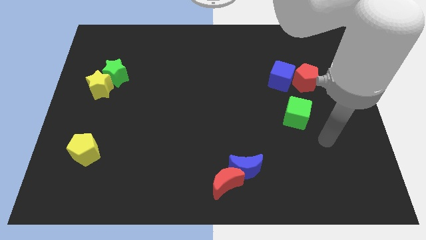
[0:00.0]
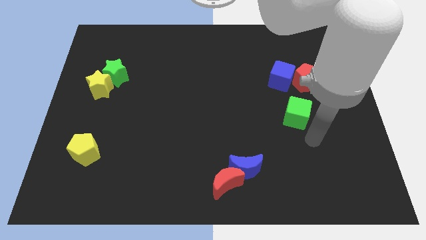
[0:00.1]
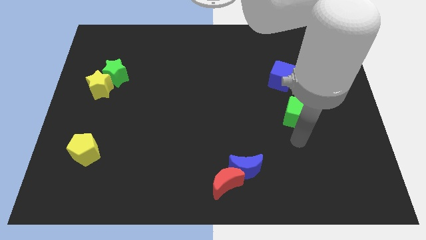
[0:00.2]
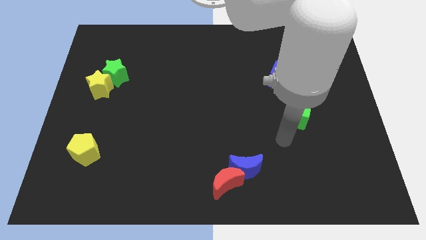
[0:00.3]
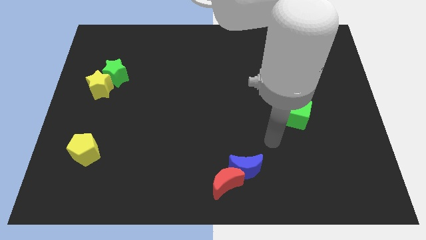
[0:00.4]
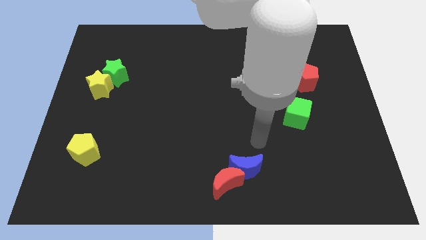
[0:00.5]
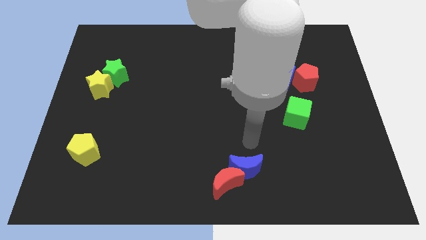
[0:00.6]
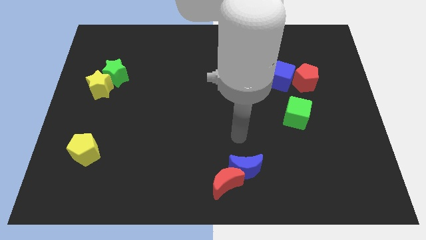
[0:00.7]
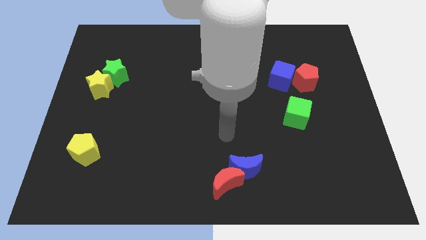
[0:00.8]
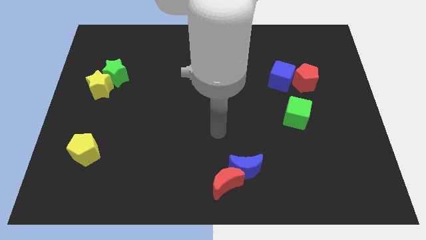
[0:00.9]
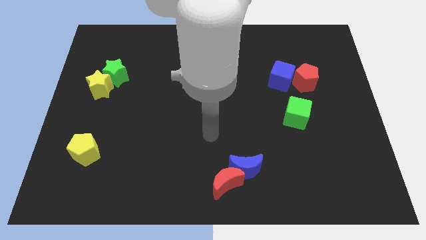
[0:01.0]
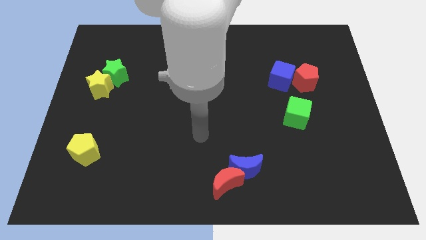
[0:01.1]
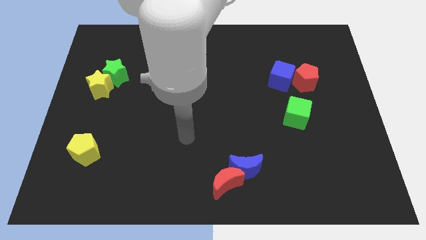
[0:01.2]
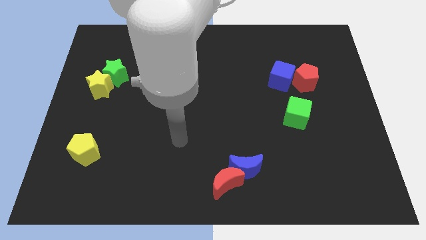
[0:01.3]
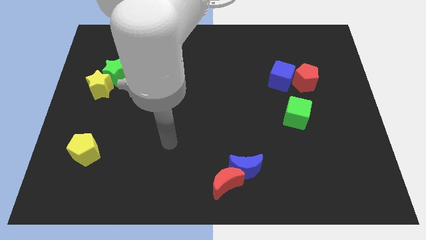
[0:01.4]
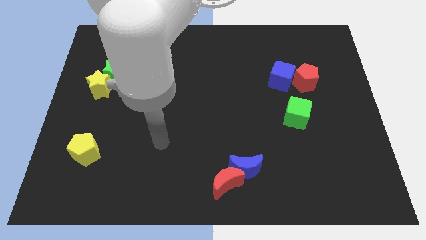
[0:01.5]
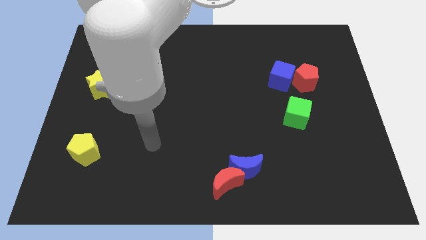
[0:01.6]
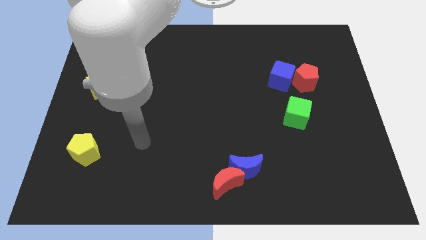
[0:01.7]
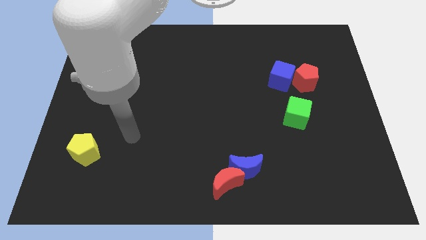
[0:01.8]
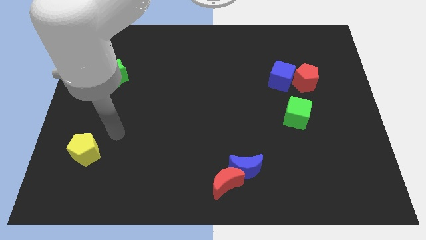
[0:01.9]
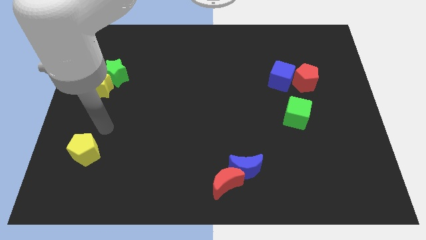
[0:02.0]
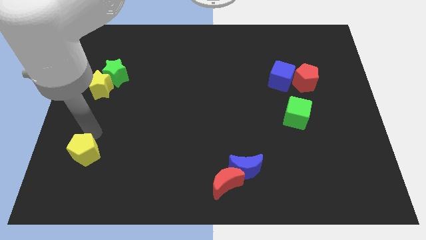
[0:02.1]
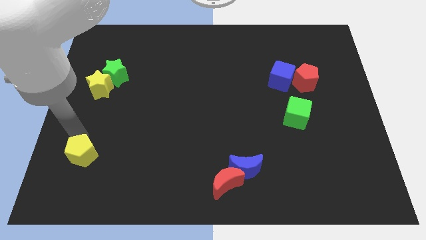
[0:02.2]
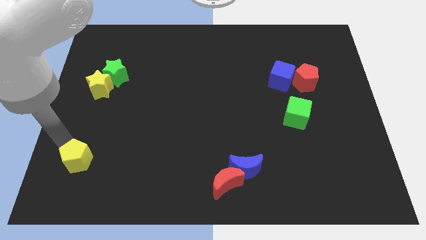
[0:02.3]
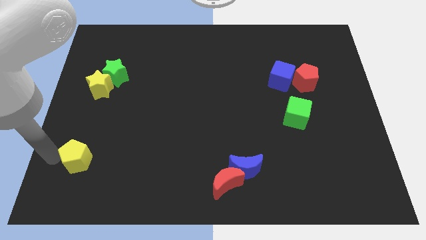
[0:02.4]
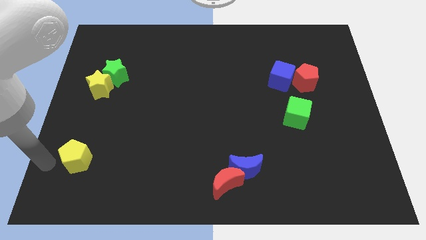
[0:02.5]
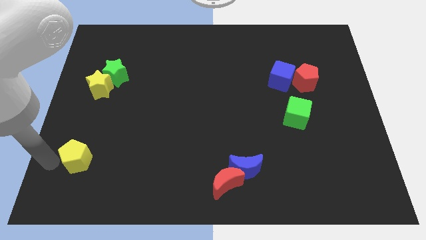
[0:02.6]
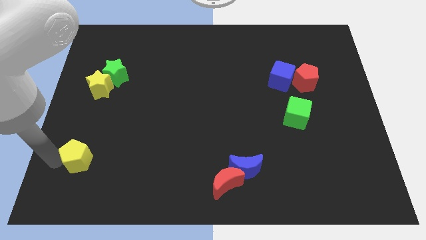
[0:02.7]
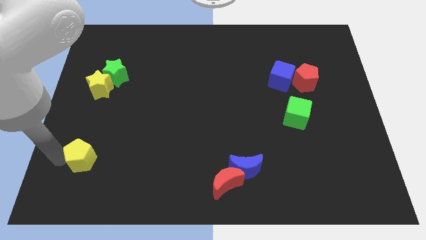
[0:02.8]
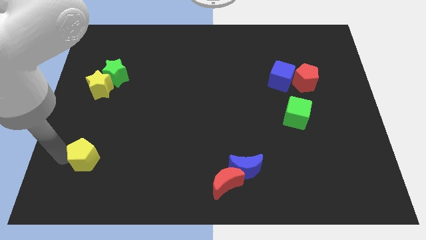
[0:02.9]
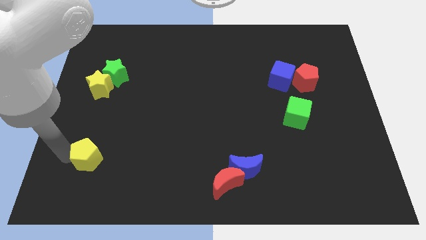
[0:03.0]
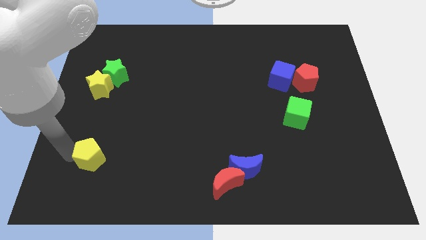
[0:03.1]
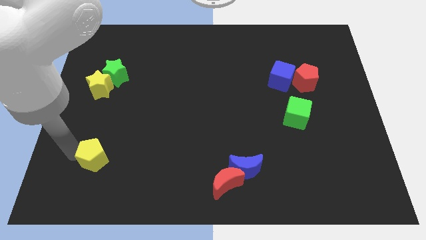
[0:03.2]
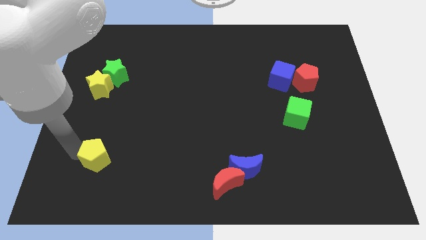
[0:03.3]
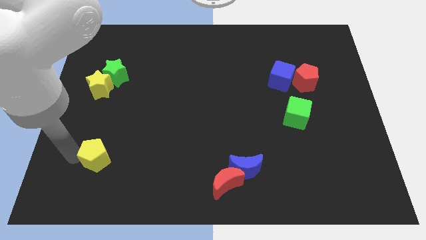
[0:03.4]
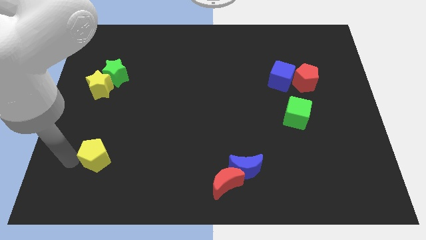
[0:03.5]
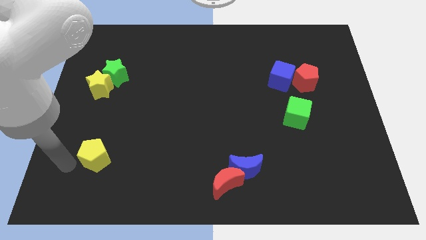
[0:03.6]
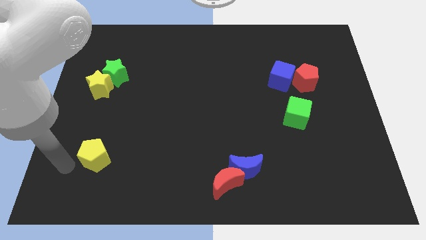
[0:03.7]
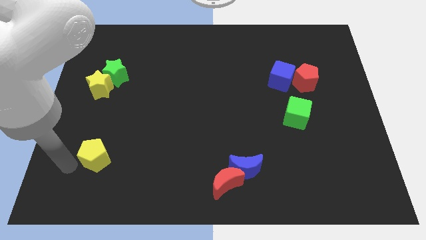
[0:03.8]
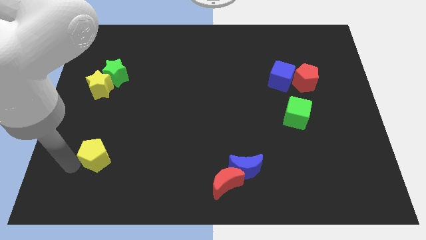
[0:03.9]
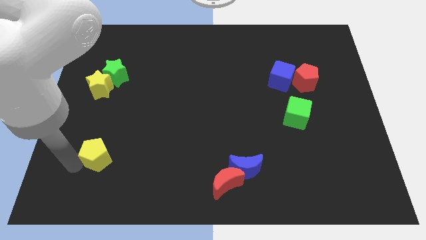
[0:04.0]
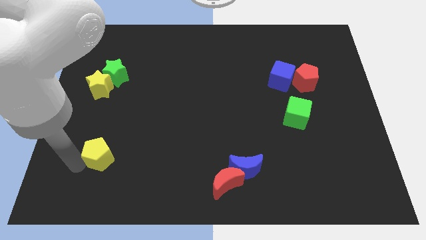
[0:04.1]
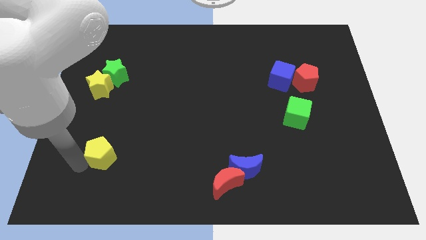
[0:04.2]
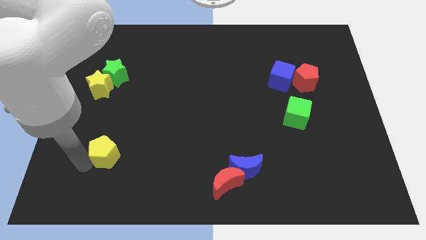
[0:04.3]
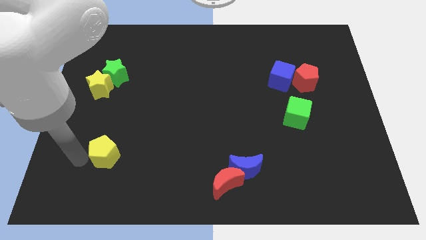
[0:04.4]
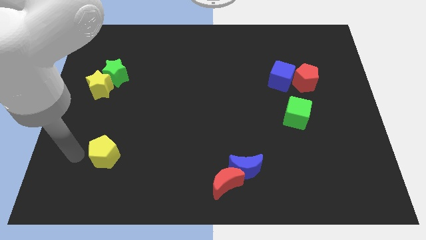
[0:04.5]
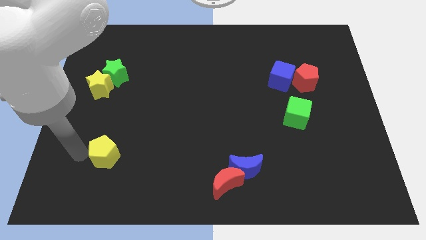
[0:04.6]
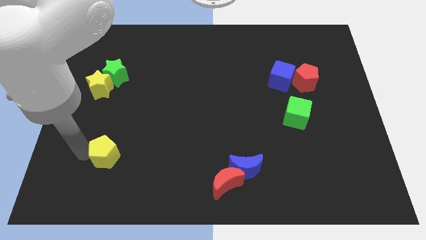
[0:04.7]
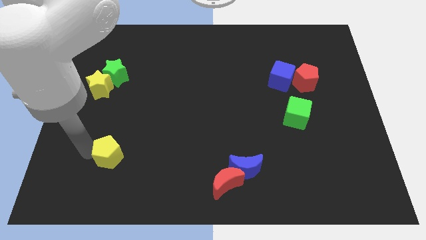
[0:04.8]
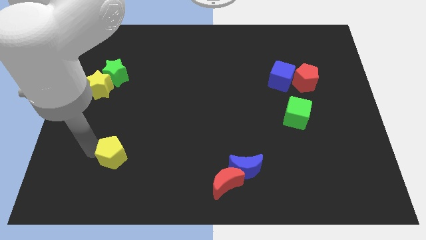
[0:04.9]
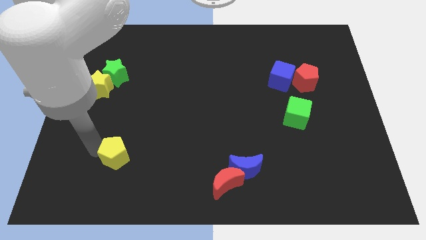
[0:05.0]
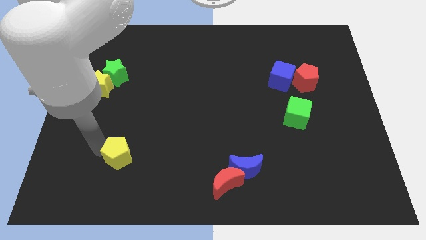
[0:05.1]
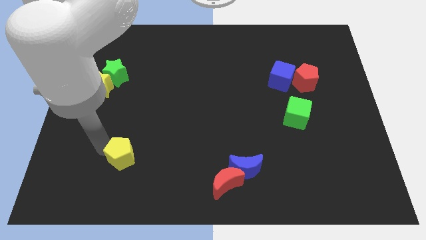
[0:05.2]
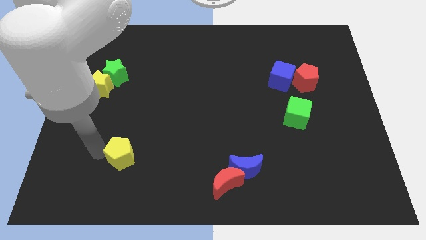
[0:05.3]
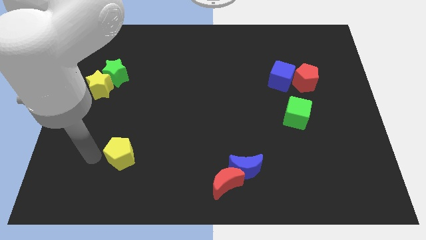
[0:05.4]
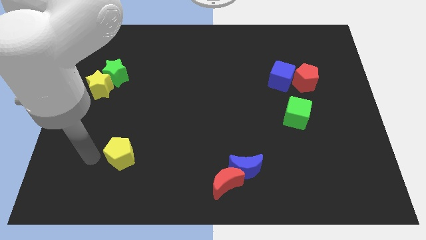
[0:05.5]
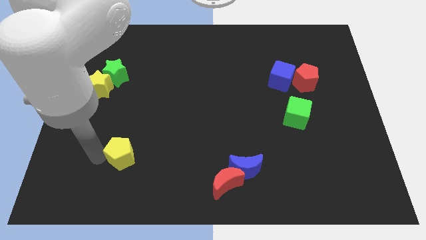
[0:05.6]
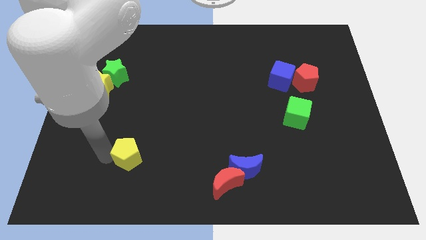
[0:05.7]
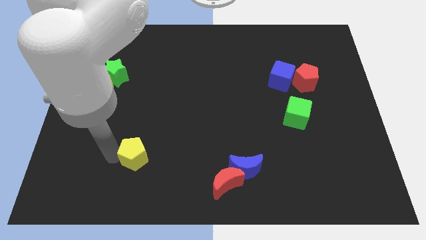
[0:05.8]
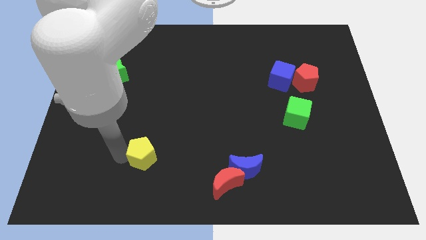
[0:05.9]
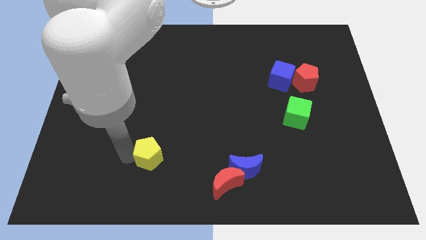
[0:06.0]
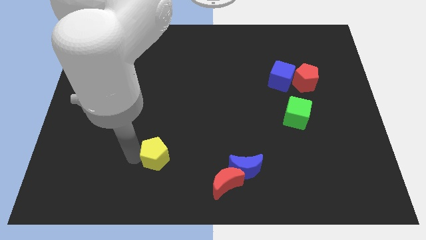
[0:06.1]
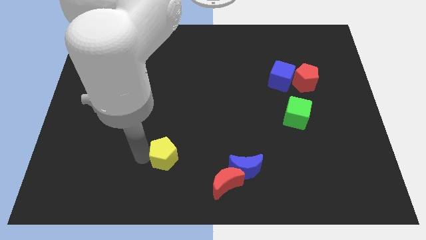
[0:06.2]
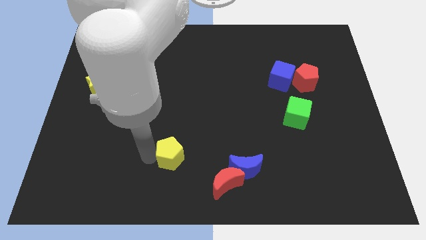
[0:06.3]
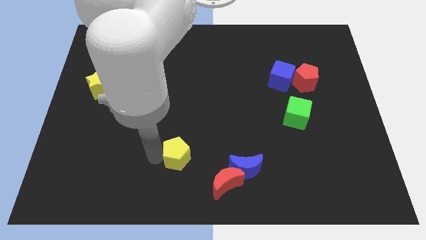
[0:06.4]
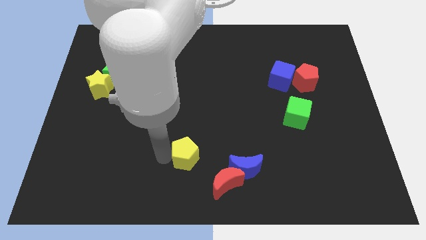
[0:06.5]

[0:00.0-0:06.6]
slide the yellow pentagon right

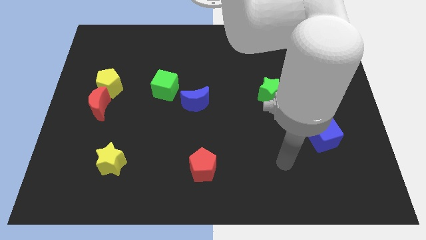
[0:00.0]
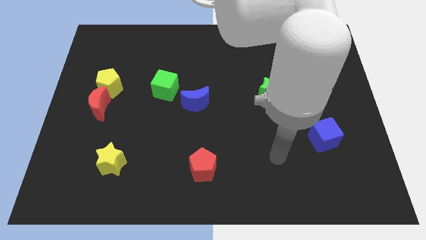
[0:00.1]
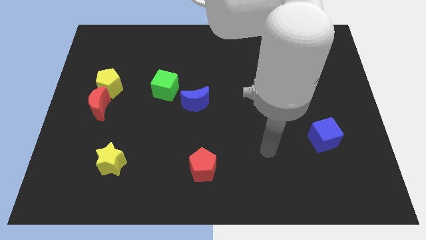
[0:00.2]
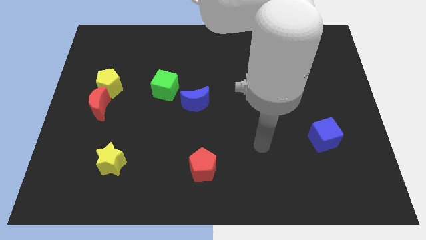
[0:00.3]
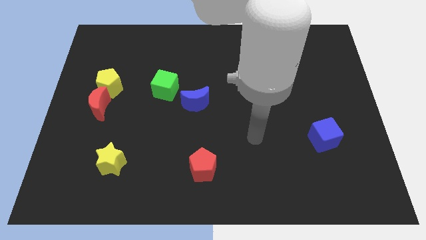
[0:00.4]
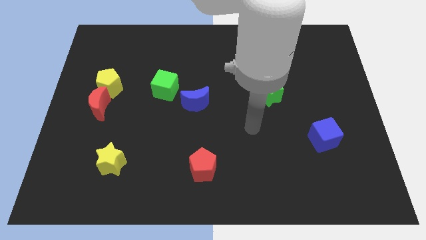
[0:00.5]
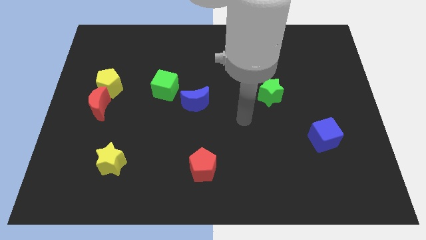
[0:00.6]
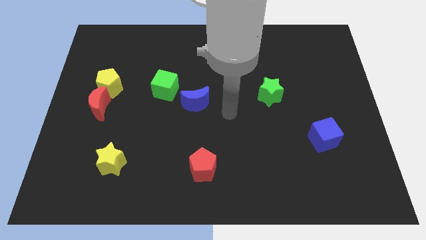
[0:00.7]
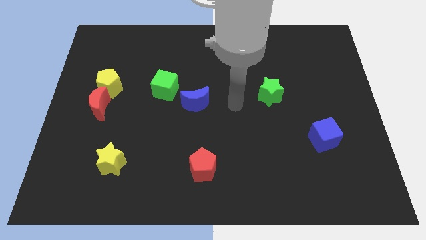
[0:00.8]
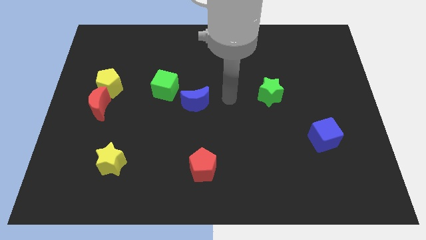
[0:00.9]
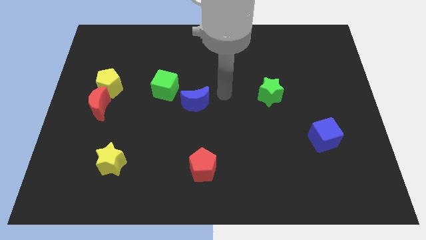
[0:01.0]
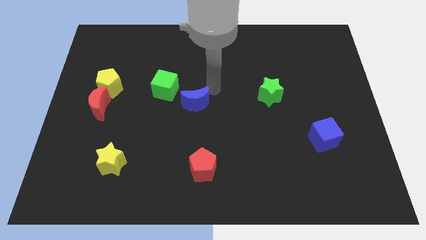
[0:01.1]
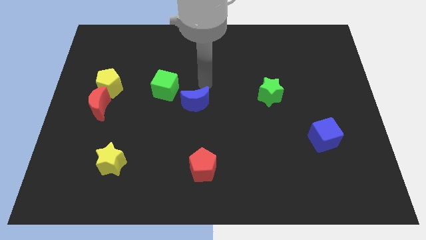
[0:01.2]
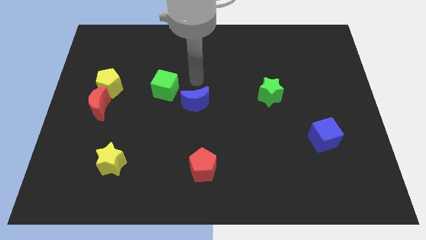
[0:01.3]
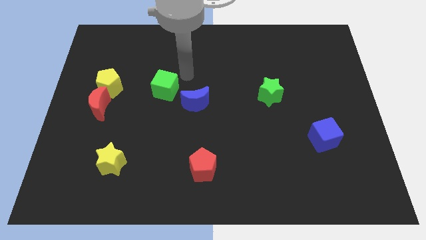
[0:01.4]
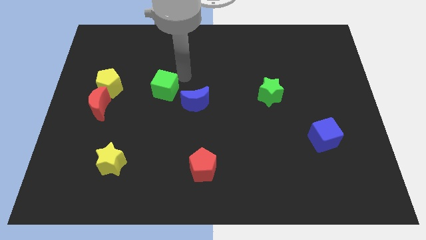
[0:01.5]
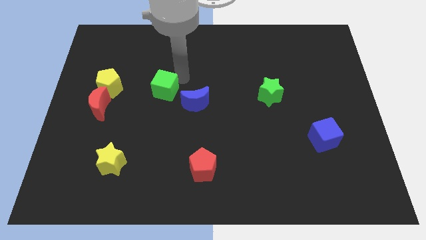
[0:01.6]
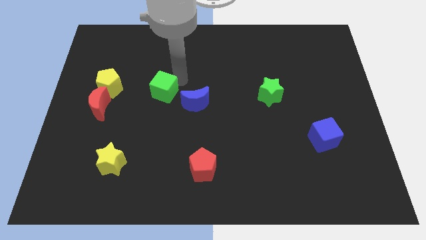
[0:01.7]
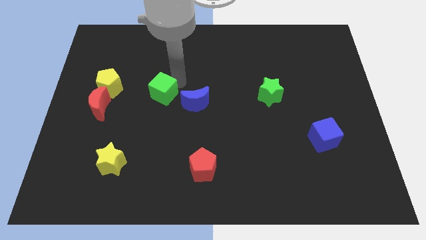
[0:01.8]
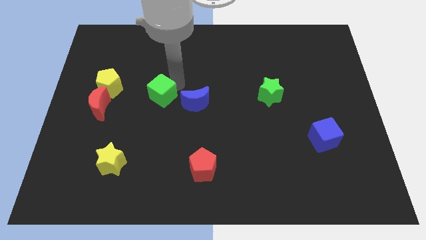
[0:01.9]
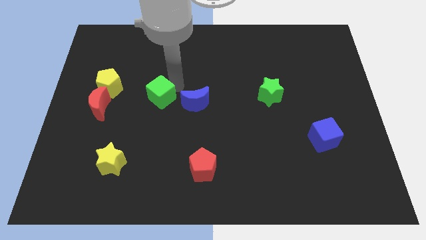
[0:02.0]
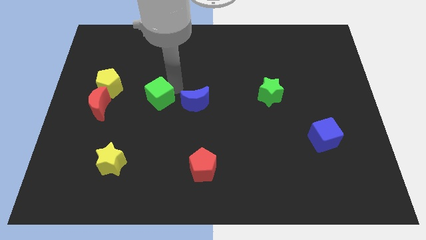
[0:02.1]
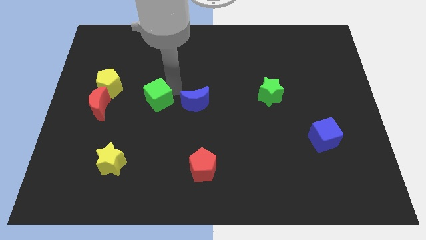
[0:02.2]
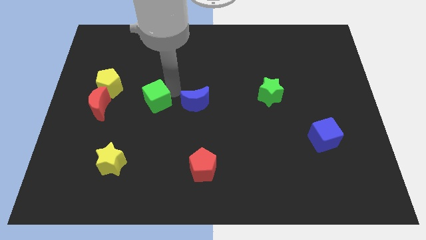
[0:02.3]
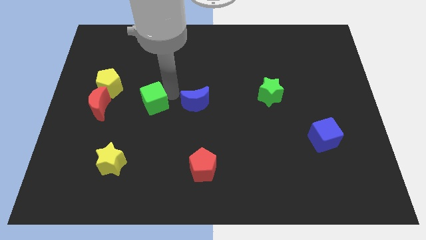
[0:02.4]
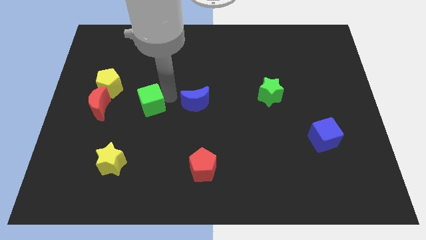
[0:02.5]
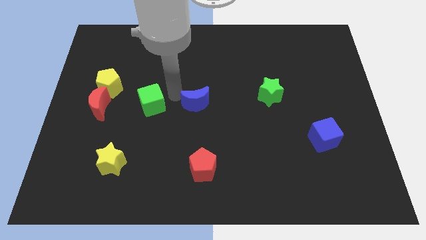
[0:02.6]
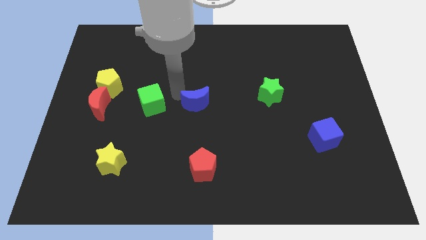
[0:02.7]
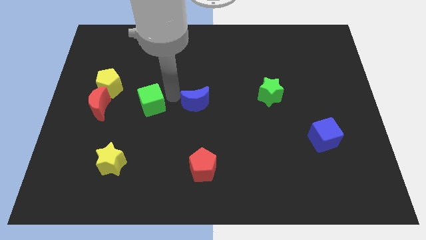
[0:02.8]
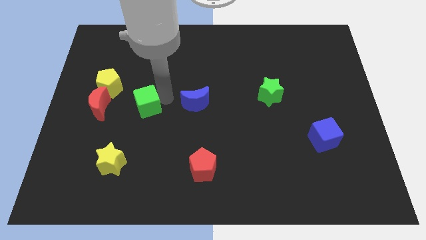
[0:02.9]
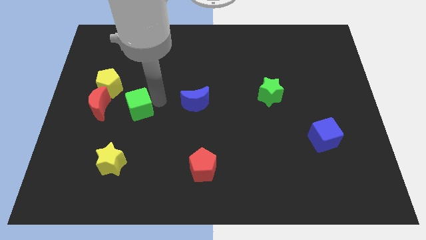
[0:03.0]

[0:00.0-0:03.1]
slightly move the green cube down and to the left diagonally
